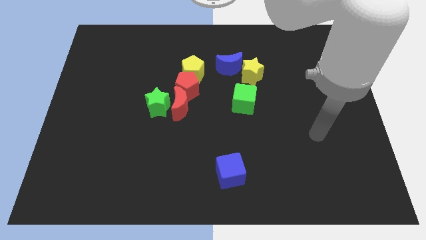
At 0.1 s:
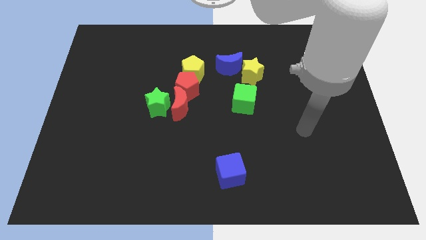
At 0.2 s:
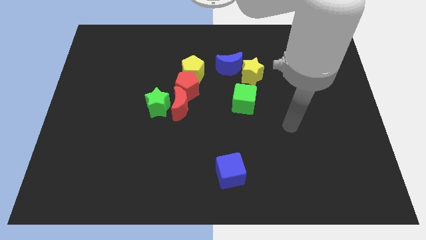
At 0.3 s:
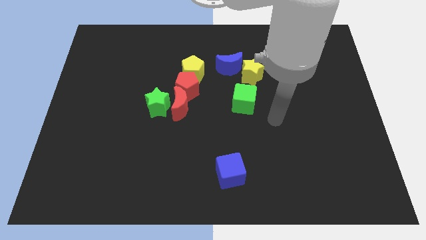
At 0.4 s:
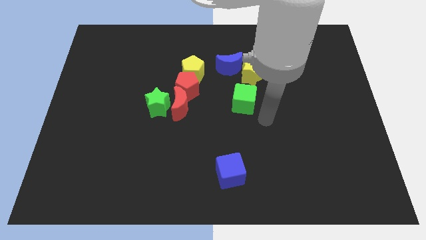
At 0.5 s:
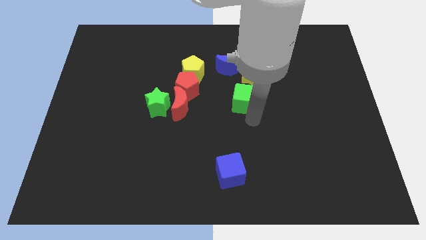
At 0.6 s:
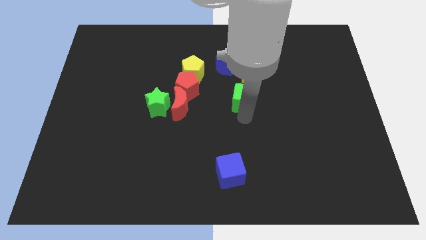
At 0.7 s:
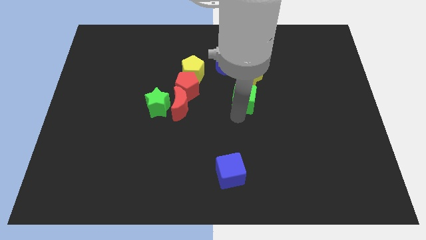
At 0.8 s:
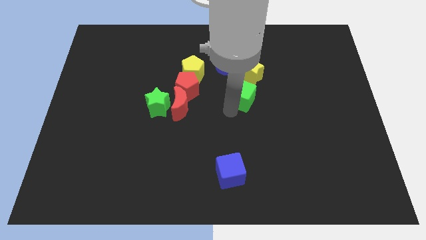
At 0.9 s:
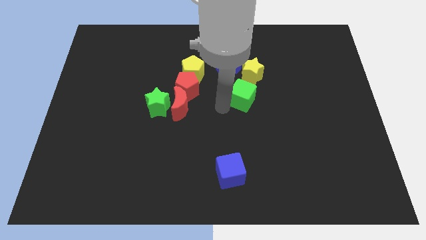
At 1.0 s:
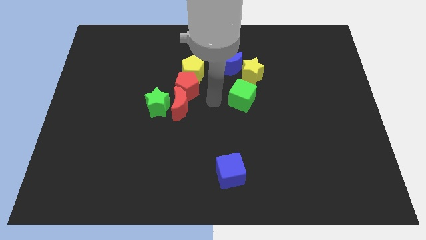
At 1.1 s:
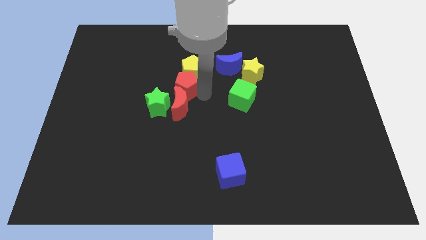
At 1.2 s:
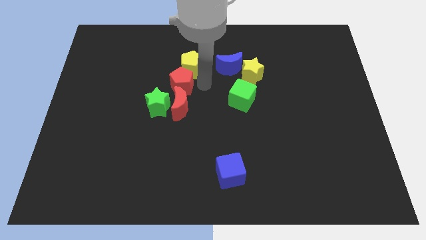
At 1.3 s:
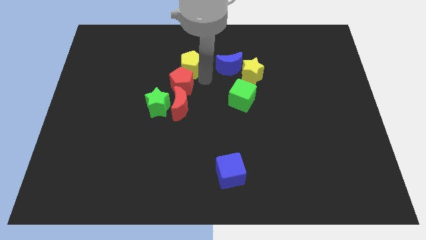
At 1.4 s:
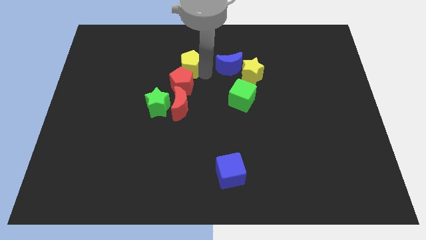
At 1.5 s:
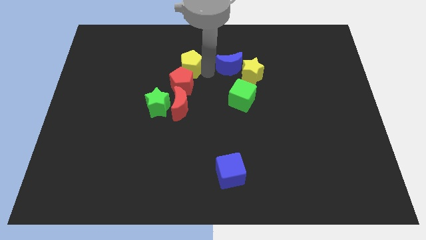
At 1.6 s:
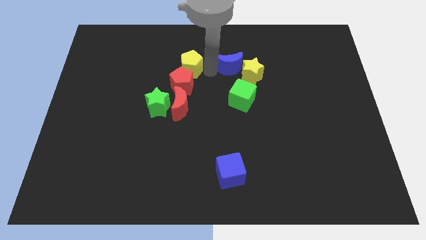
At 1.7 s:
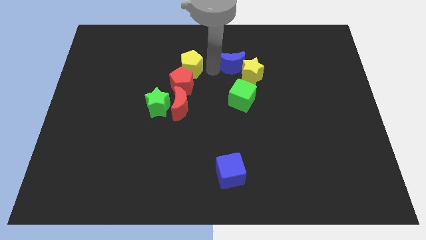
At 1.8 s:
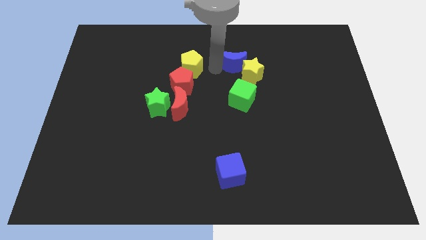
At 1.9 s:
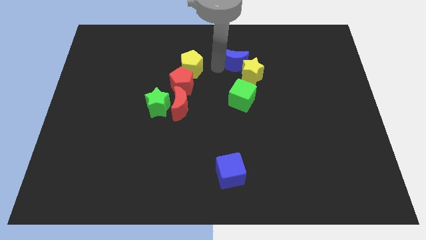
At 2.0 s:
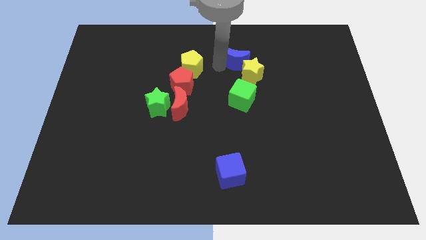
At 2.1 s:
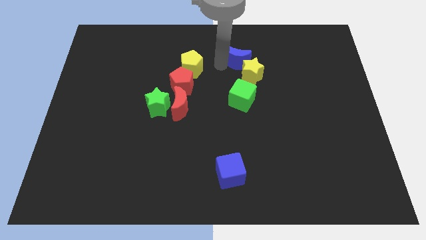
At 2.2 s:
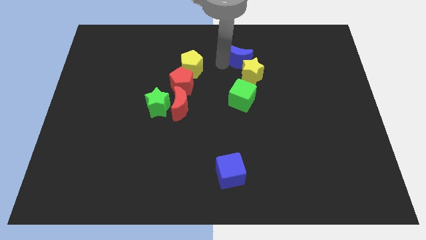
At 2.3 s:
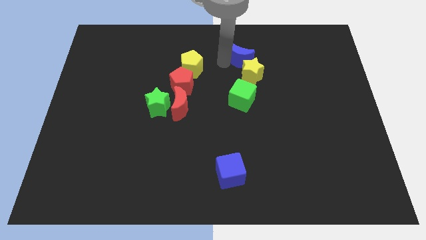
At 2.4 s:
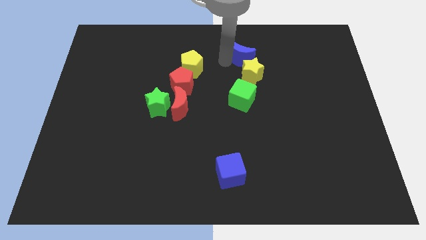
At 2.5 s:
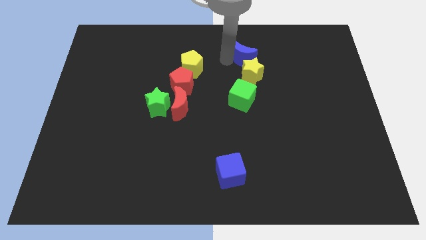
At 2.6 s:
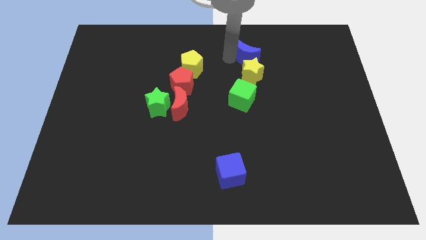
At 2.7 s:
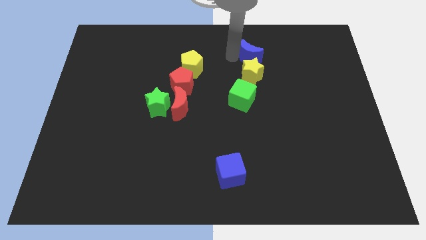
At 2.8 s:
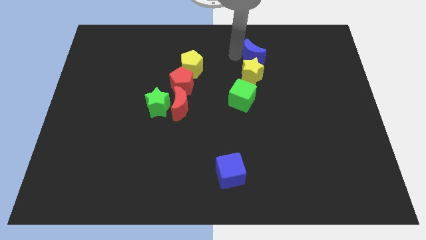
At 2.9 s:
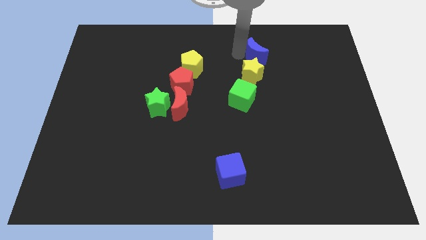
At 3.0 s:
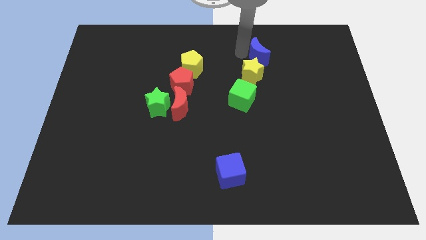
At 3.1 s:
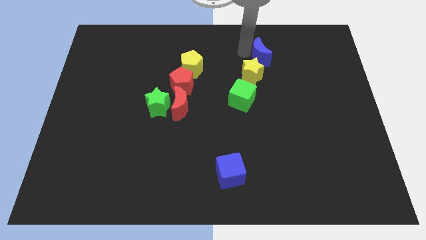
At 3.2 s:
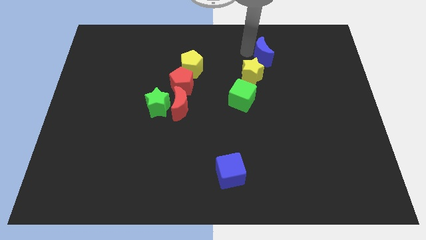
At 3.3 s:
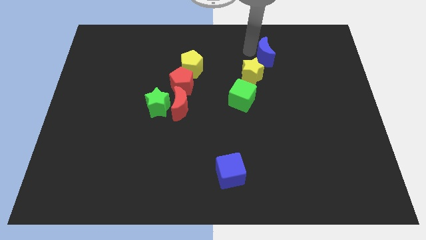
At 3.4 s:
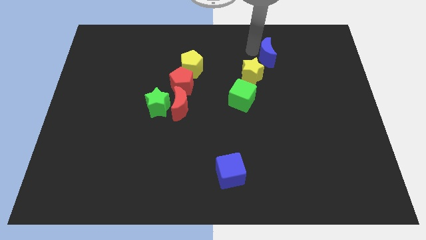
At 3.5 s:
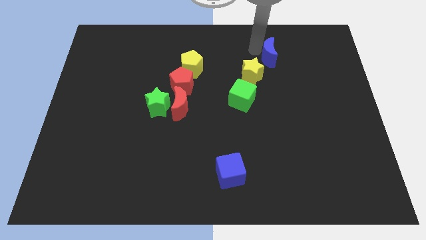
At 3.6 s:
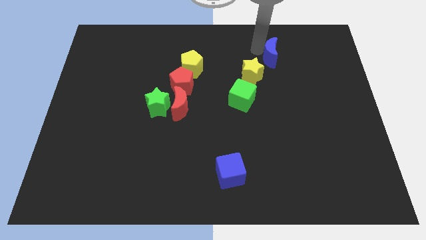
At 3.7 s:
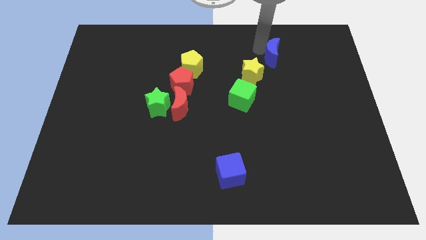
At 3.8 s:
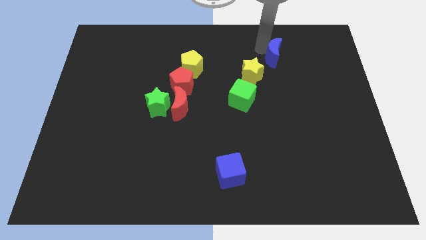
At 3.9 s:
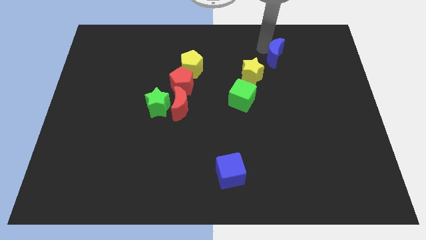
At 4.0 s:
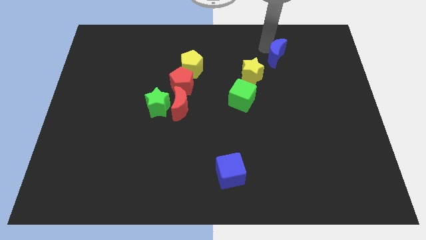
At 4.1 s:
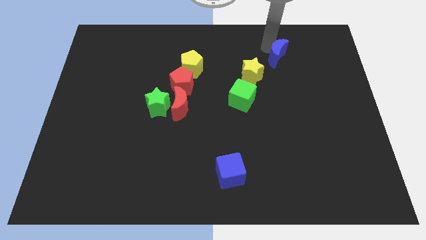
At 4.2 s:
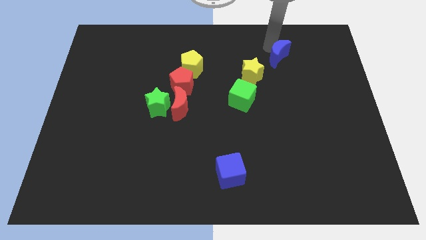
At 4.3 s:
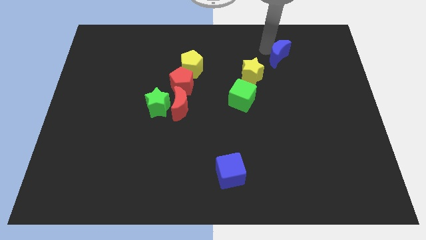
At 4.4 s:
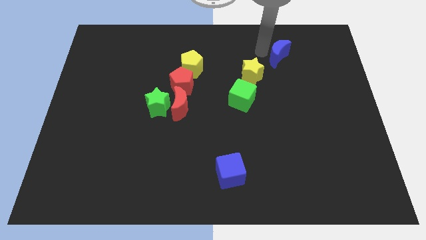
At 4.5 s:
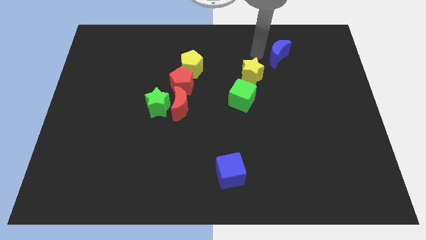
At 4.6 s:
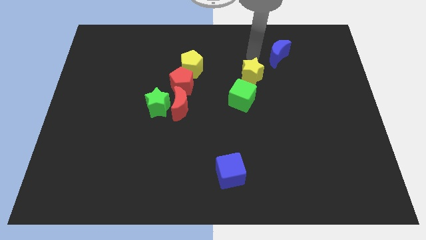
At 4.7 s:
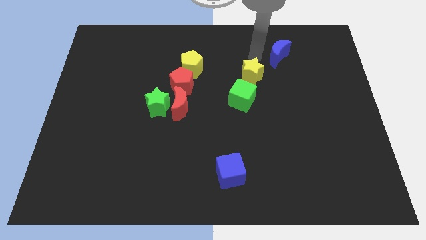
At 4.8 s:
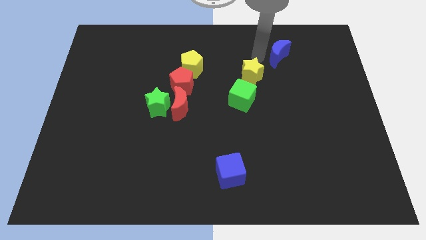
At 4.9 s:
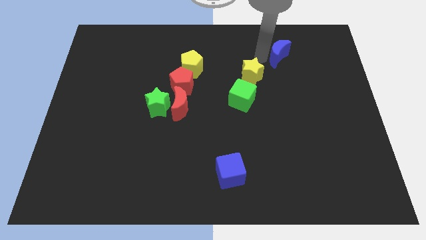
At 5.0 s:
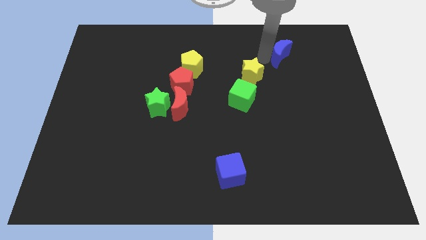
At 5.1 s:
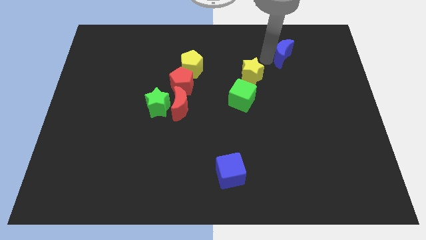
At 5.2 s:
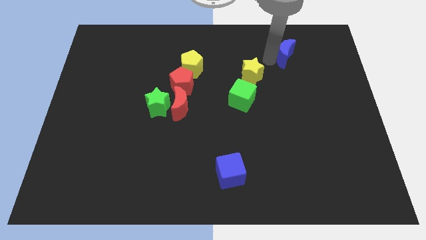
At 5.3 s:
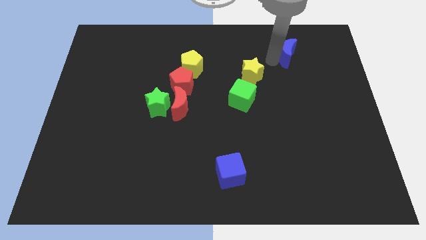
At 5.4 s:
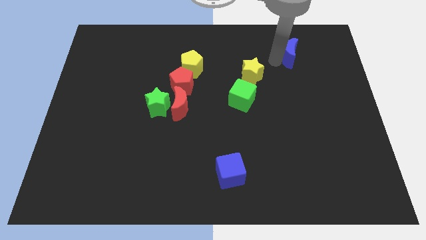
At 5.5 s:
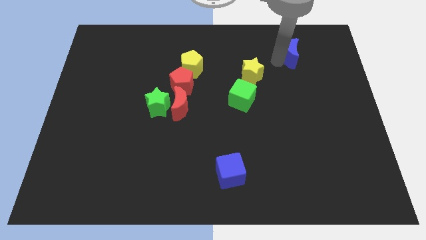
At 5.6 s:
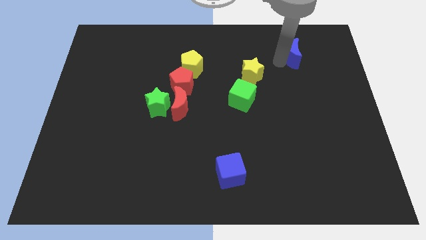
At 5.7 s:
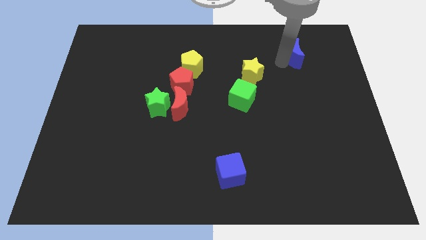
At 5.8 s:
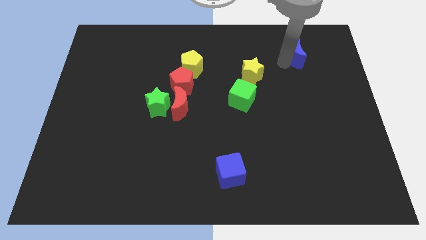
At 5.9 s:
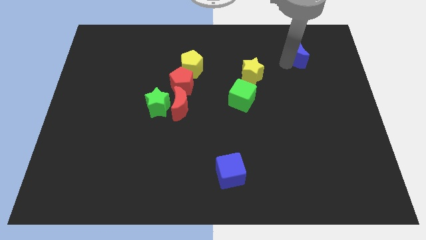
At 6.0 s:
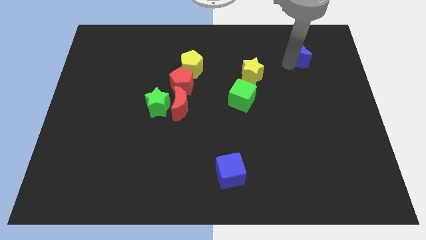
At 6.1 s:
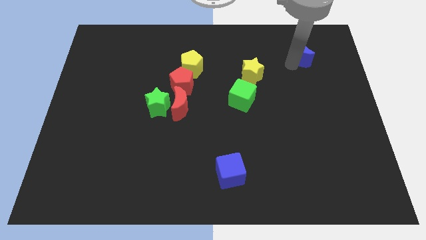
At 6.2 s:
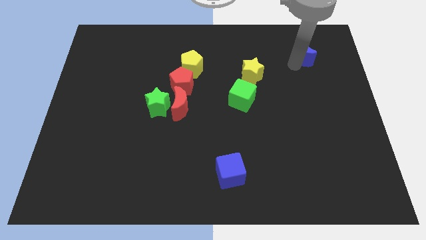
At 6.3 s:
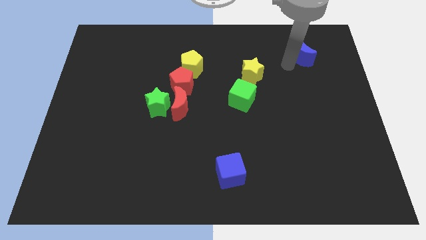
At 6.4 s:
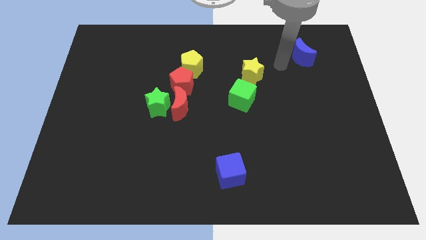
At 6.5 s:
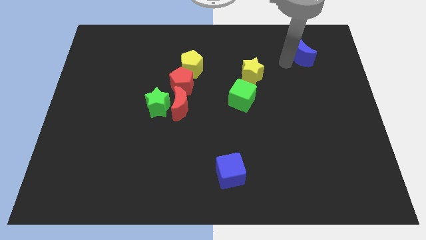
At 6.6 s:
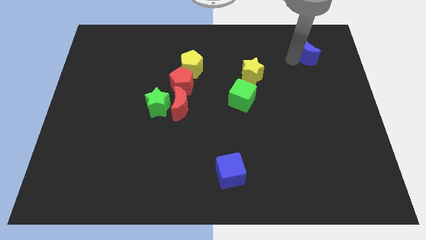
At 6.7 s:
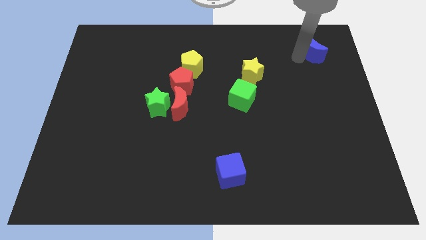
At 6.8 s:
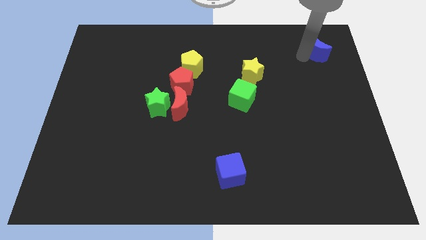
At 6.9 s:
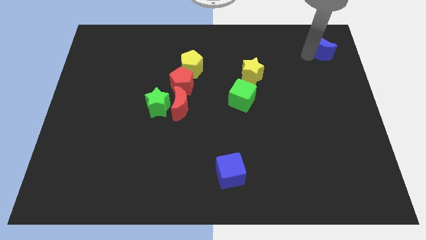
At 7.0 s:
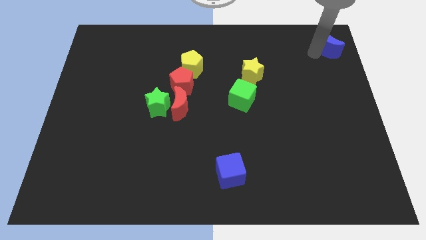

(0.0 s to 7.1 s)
put the blue moon to the top right of the board
